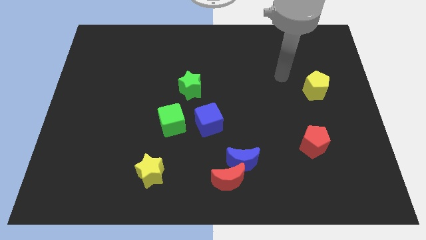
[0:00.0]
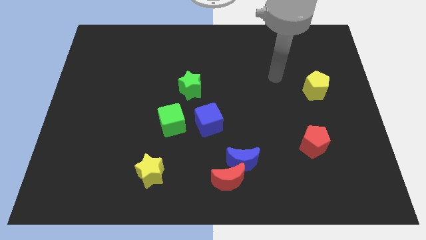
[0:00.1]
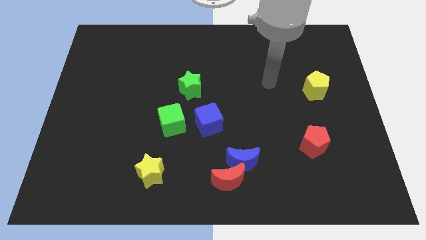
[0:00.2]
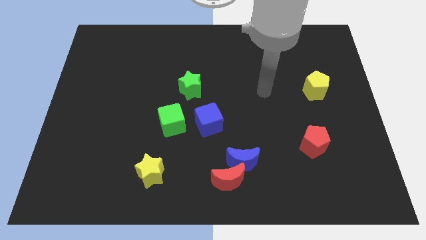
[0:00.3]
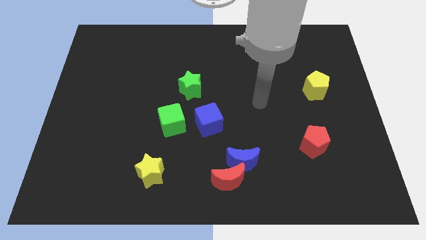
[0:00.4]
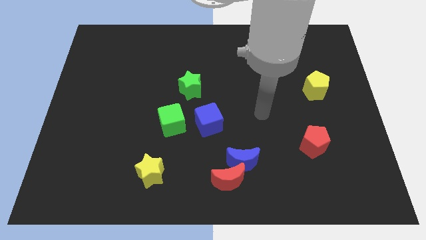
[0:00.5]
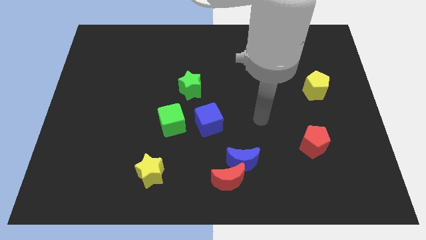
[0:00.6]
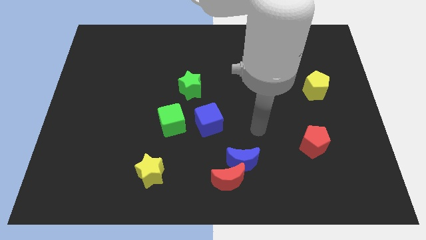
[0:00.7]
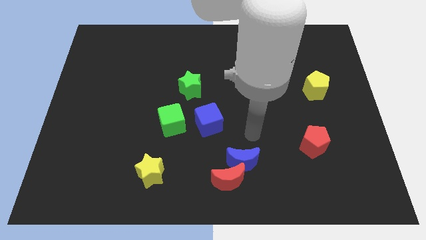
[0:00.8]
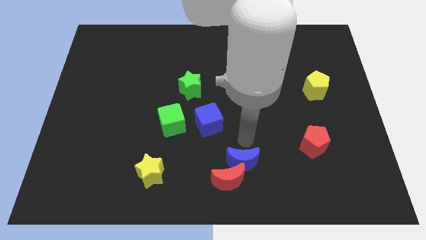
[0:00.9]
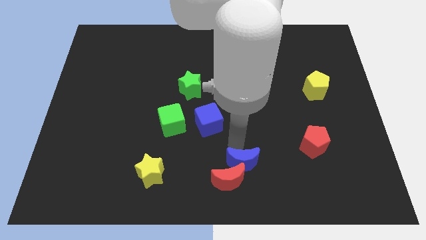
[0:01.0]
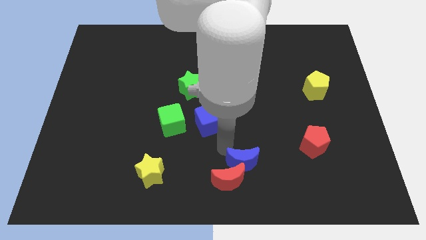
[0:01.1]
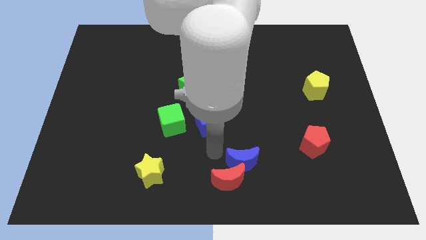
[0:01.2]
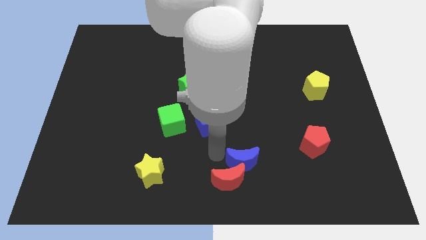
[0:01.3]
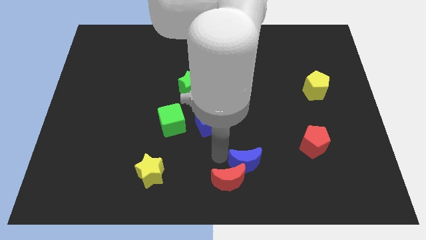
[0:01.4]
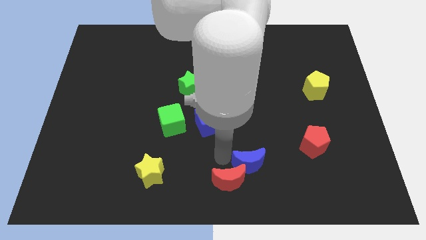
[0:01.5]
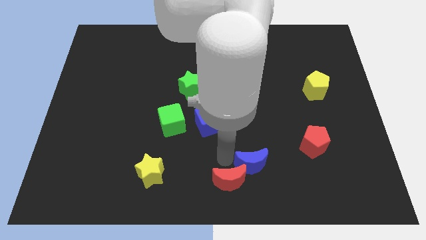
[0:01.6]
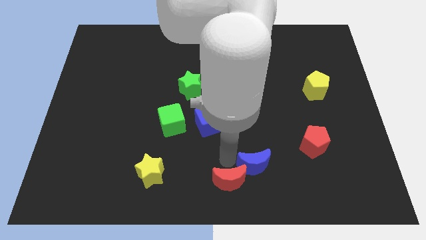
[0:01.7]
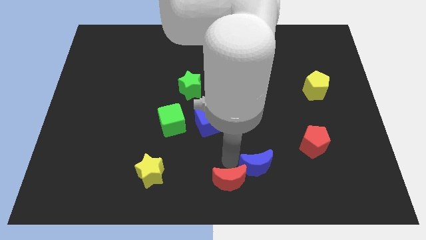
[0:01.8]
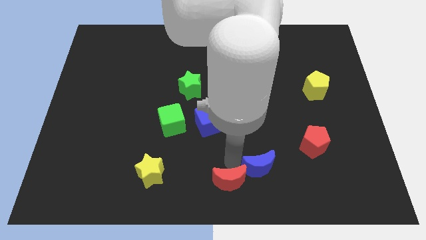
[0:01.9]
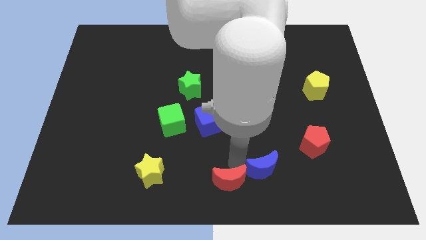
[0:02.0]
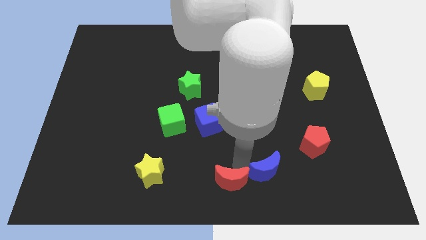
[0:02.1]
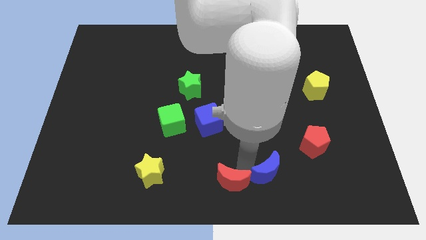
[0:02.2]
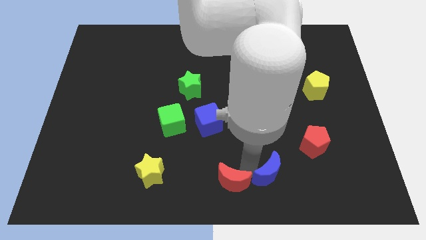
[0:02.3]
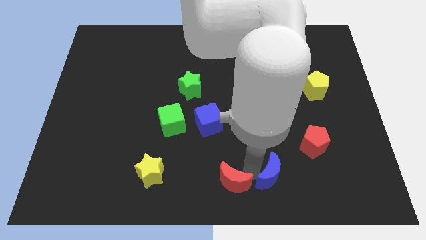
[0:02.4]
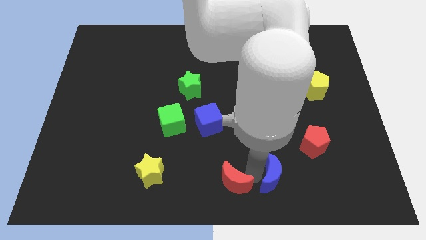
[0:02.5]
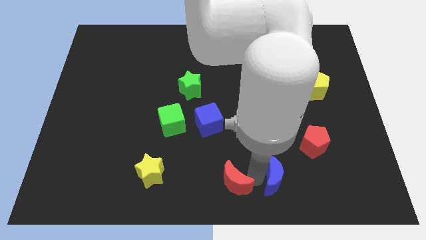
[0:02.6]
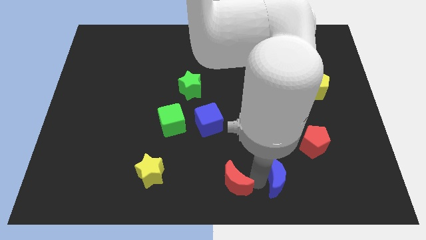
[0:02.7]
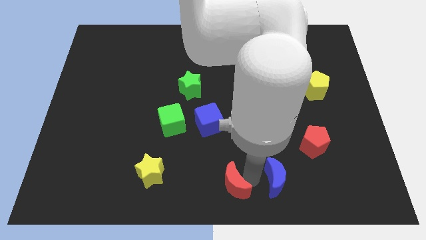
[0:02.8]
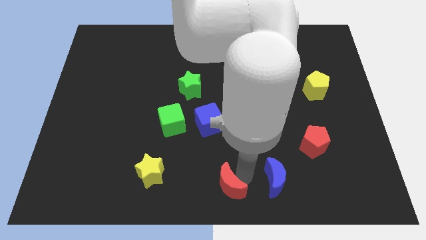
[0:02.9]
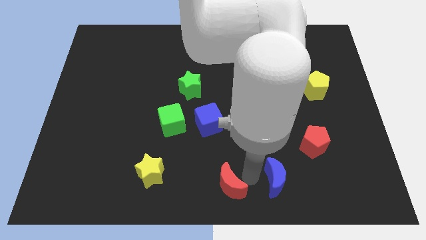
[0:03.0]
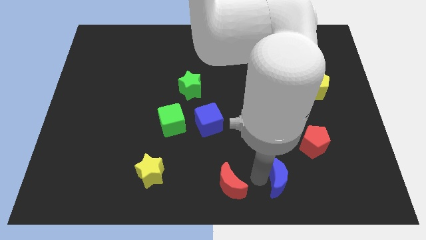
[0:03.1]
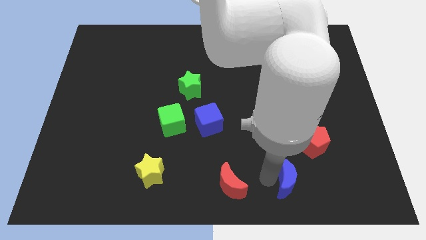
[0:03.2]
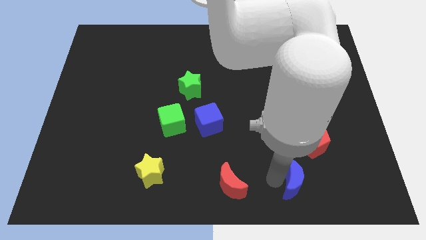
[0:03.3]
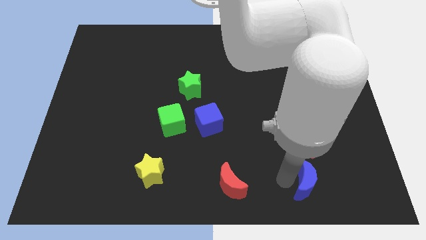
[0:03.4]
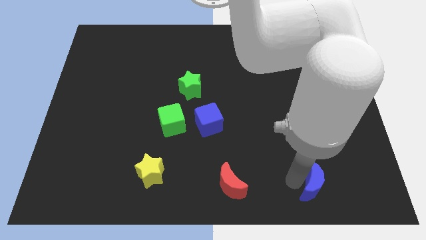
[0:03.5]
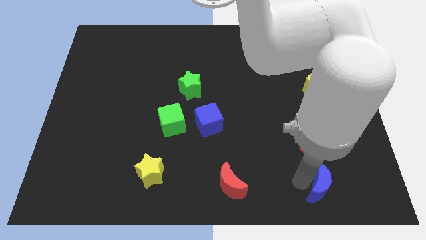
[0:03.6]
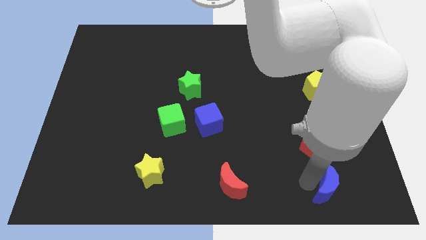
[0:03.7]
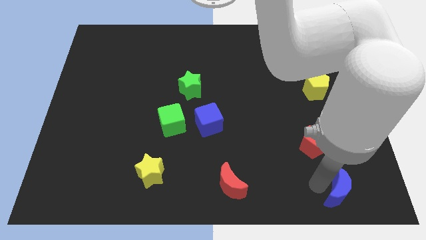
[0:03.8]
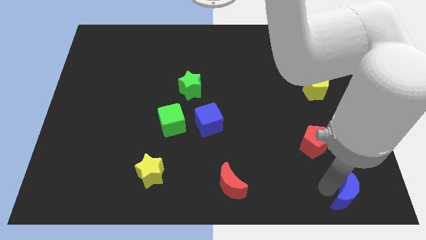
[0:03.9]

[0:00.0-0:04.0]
push the blue moon to the bottom right corner

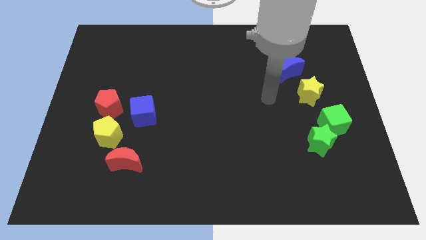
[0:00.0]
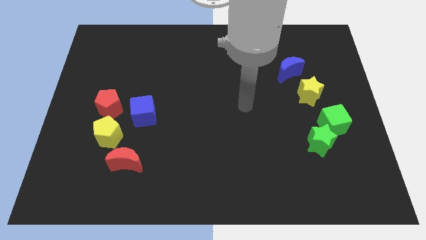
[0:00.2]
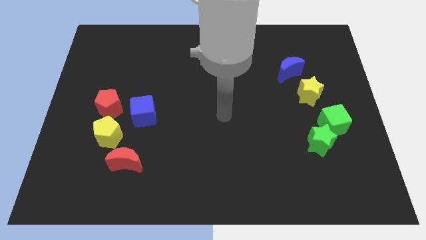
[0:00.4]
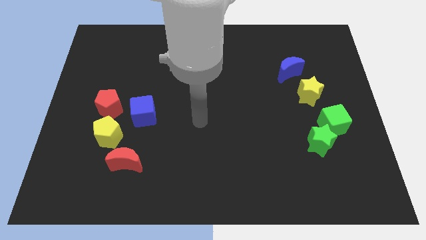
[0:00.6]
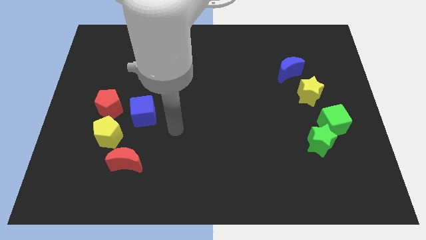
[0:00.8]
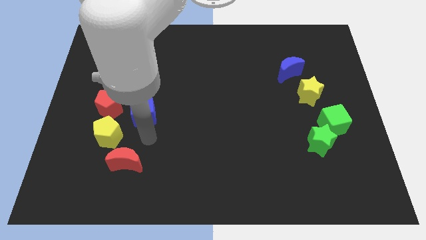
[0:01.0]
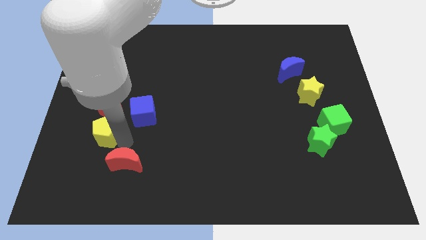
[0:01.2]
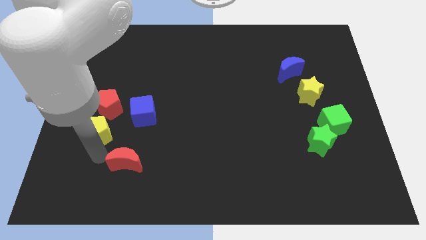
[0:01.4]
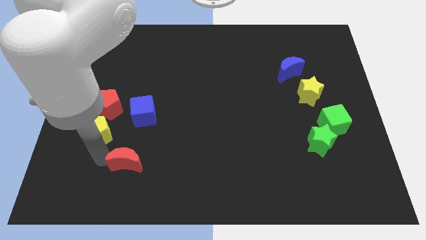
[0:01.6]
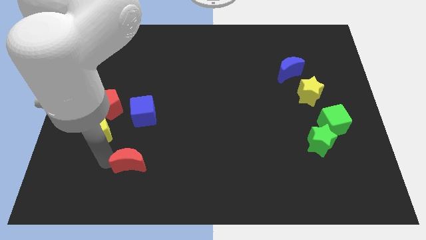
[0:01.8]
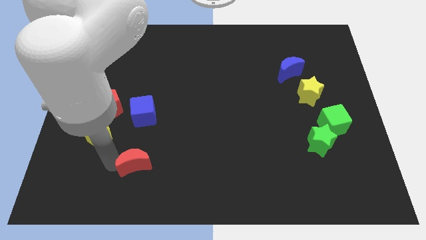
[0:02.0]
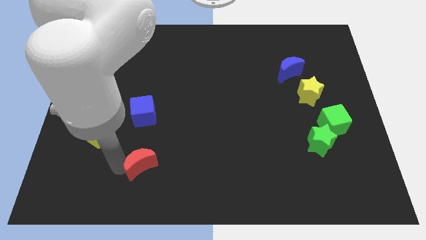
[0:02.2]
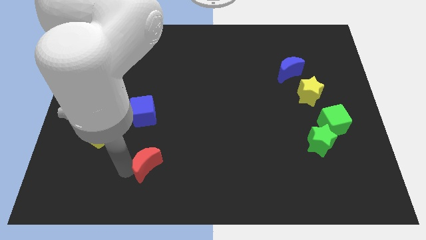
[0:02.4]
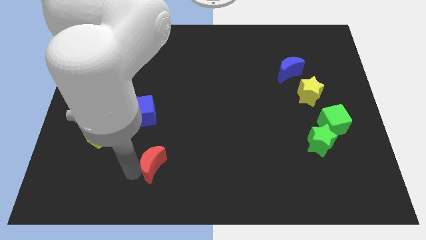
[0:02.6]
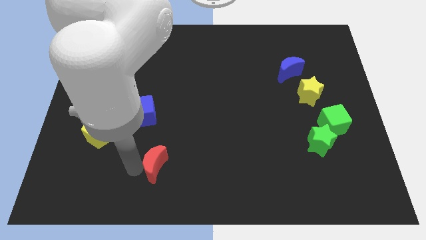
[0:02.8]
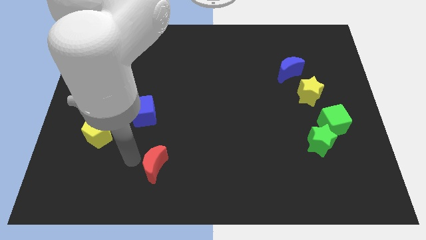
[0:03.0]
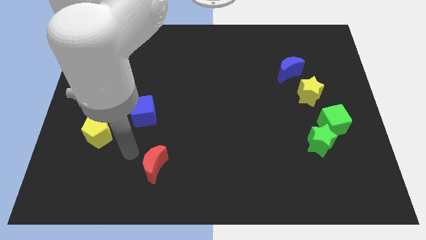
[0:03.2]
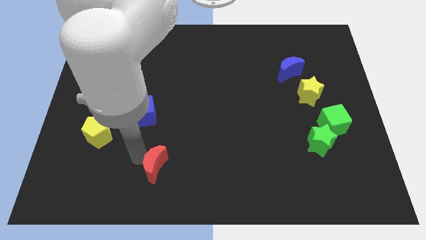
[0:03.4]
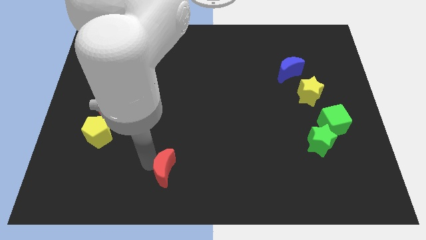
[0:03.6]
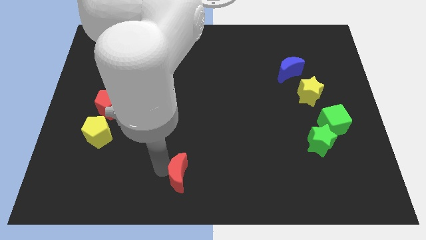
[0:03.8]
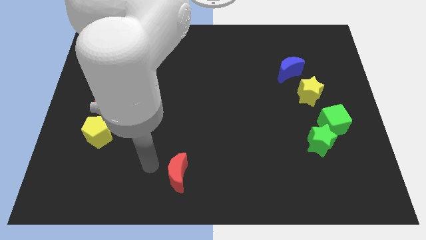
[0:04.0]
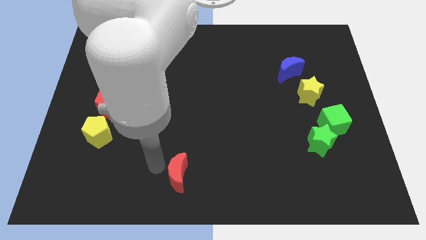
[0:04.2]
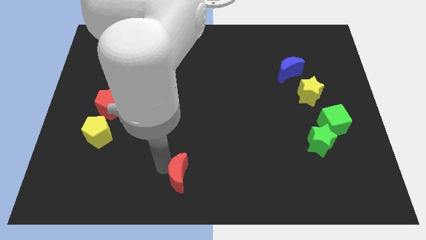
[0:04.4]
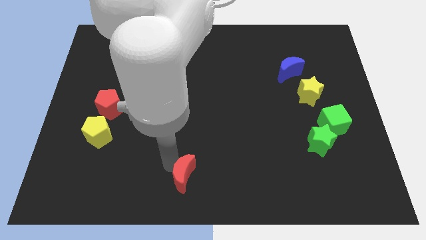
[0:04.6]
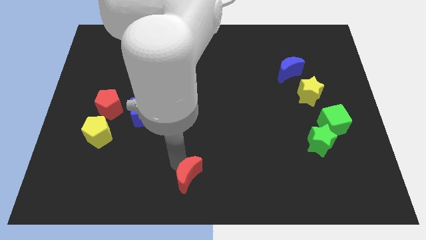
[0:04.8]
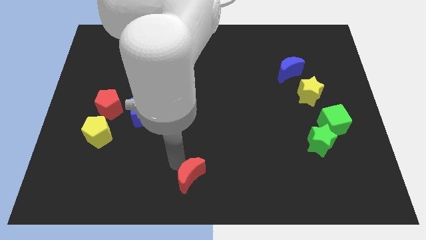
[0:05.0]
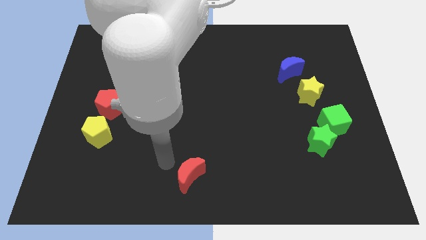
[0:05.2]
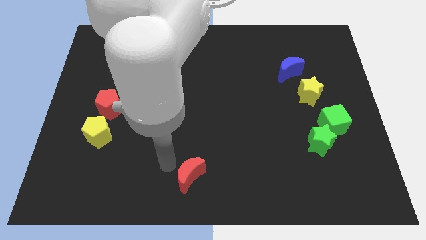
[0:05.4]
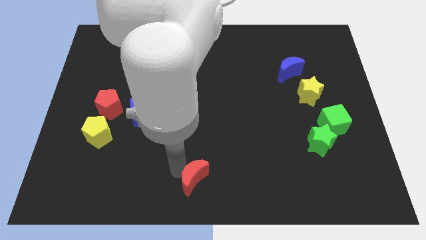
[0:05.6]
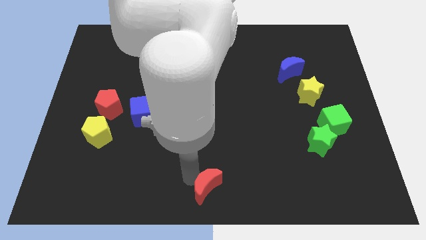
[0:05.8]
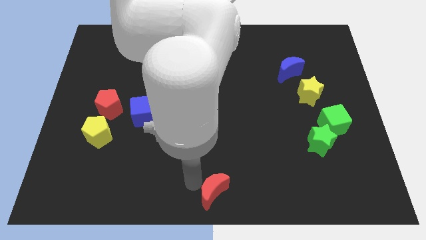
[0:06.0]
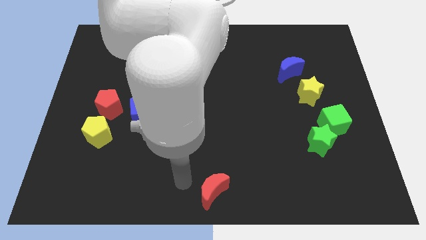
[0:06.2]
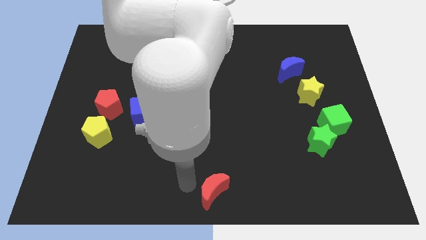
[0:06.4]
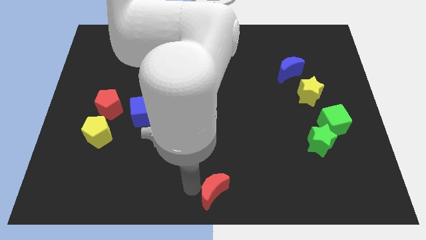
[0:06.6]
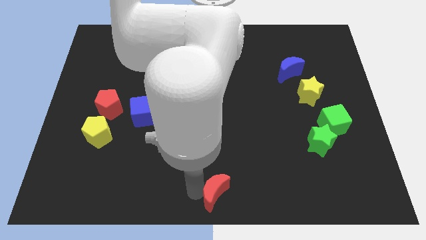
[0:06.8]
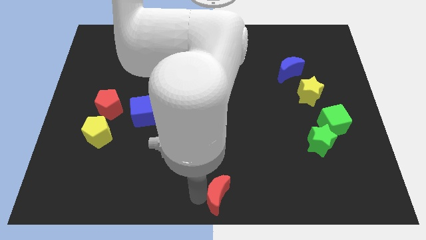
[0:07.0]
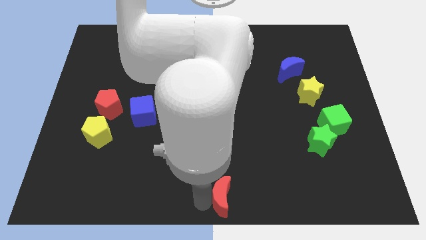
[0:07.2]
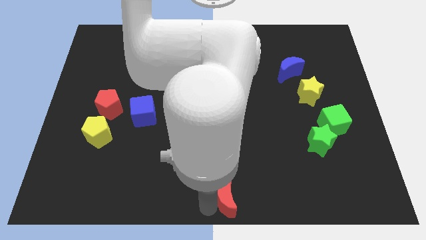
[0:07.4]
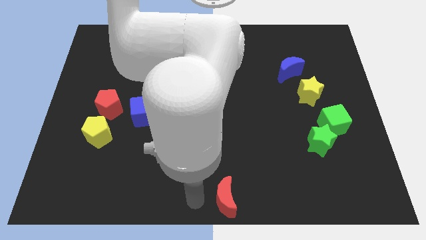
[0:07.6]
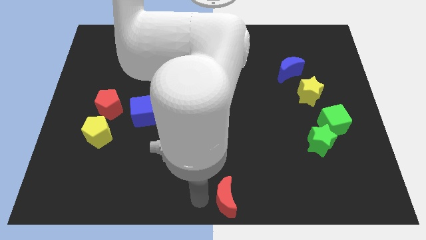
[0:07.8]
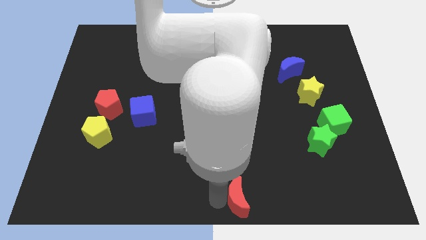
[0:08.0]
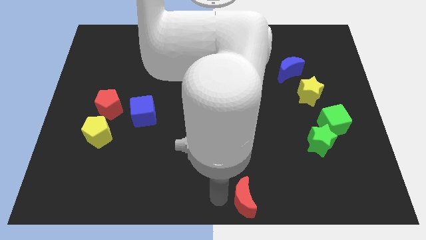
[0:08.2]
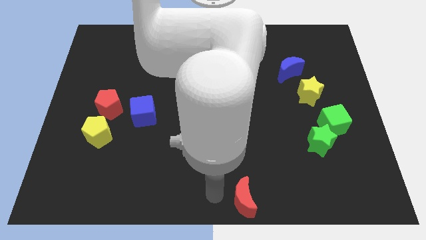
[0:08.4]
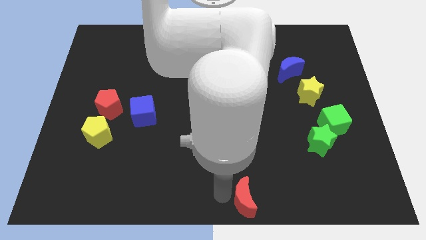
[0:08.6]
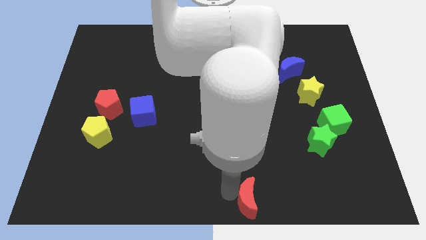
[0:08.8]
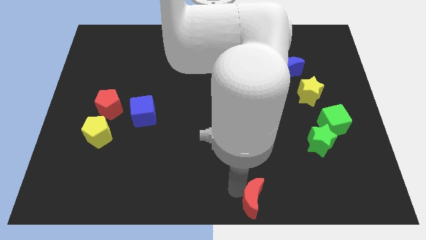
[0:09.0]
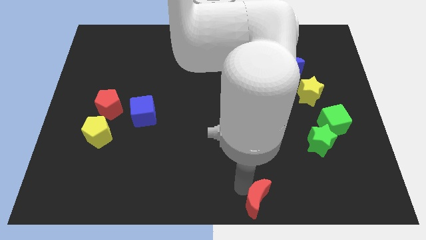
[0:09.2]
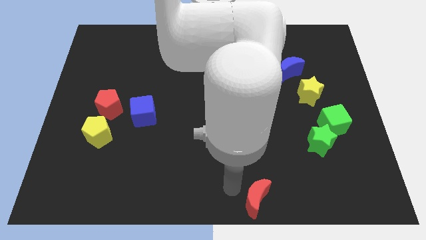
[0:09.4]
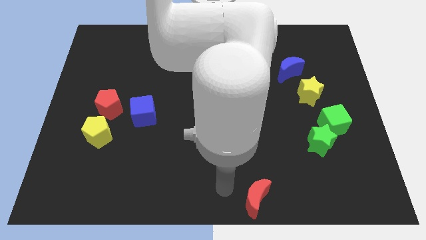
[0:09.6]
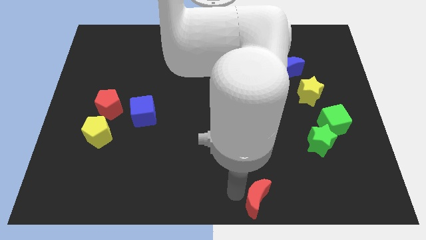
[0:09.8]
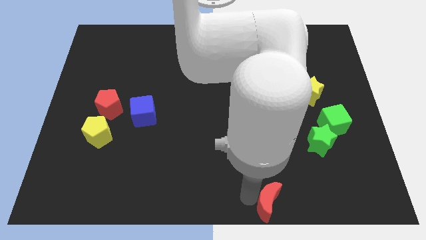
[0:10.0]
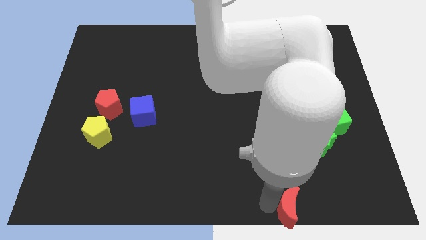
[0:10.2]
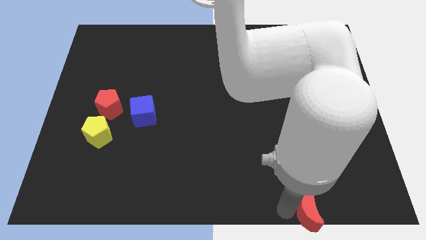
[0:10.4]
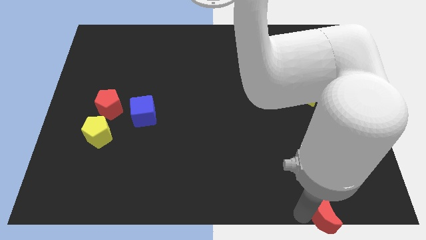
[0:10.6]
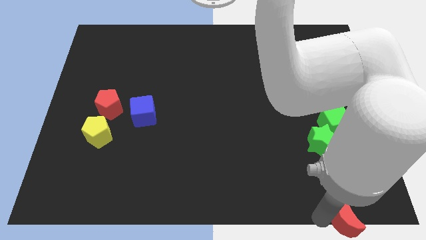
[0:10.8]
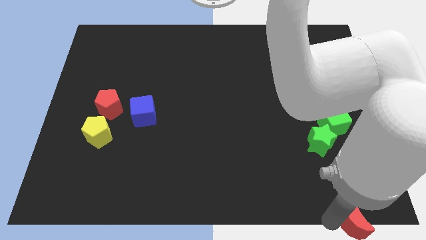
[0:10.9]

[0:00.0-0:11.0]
put the red moon to the bottom right of the board
